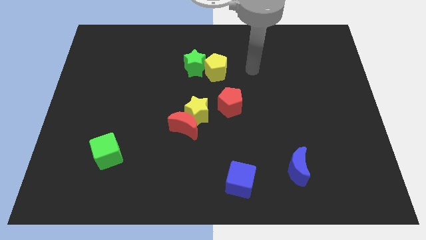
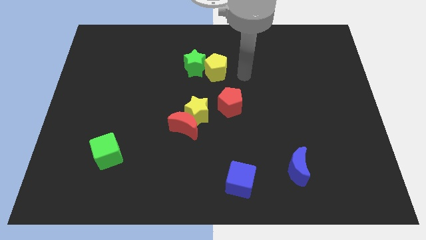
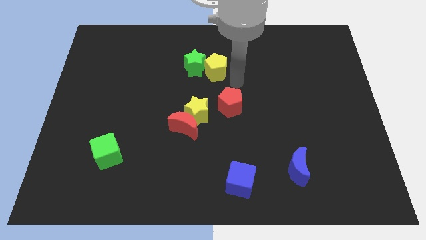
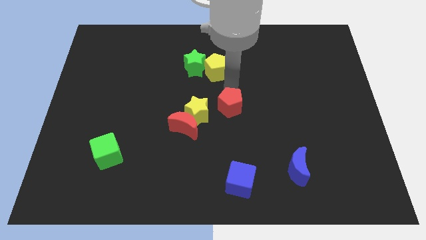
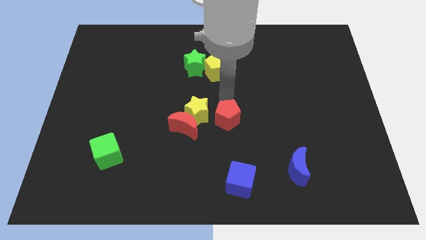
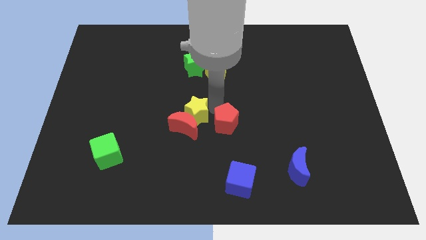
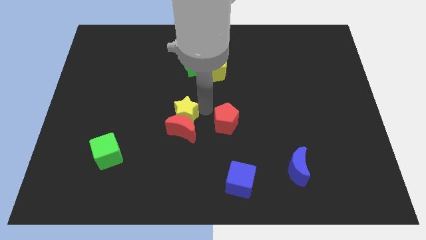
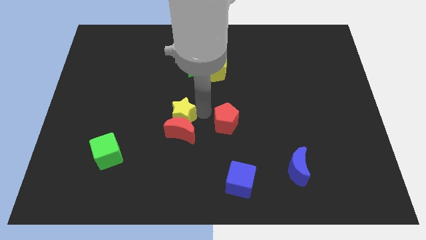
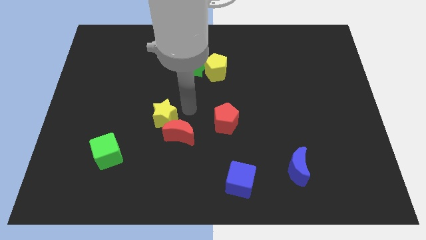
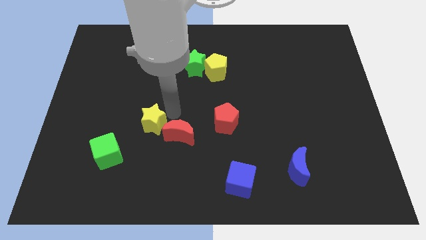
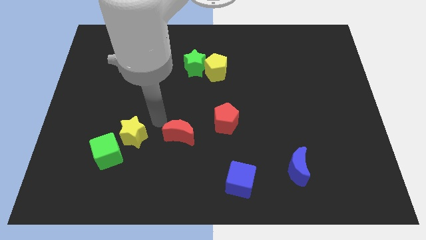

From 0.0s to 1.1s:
pull the red moon apart from the yellow star

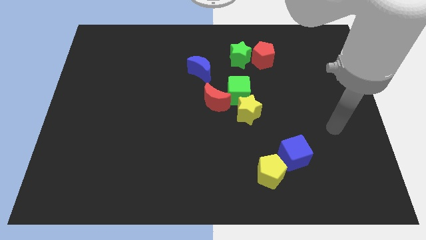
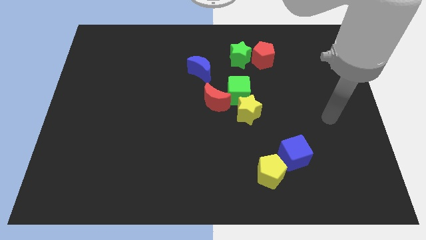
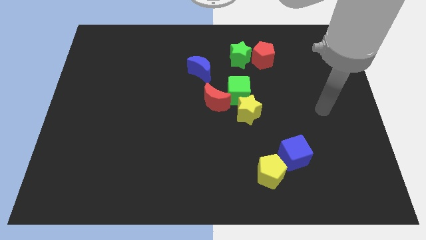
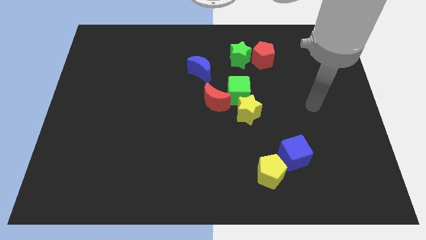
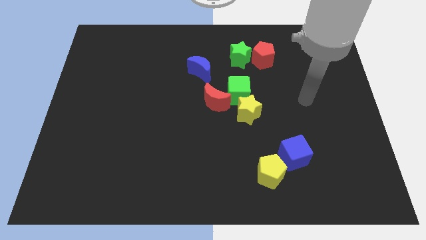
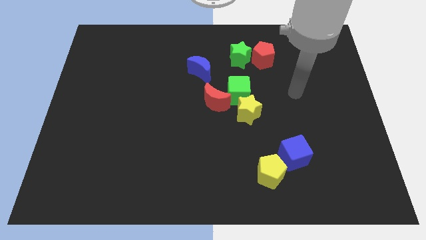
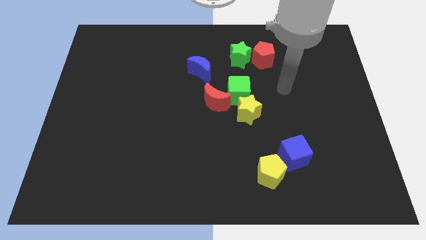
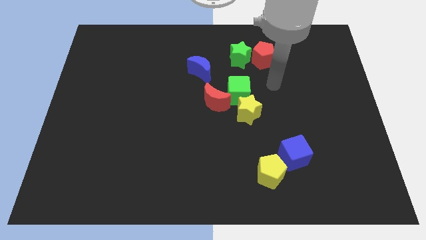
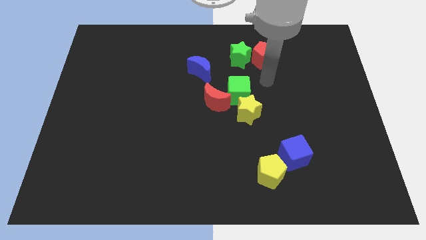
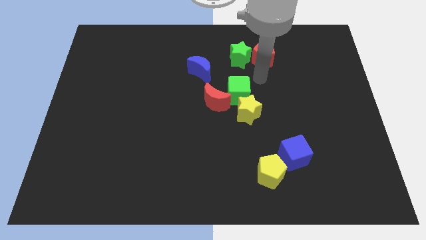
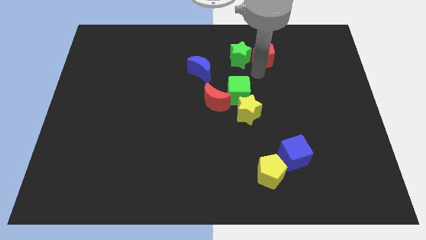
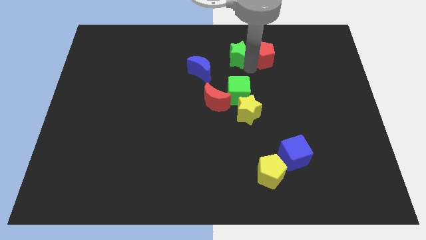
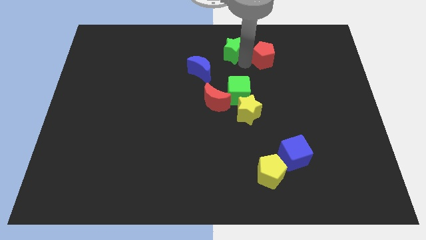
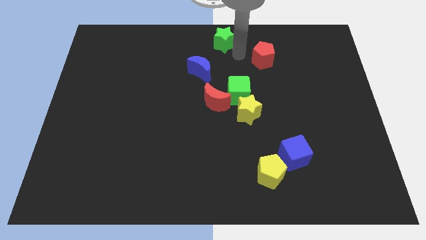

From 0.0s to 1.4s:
move the red pentagon away from the green star

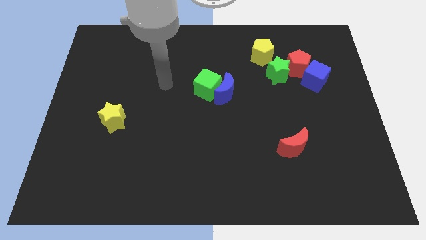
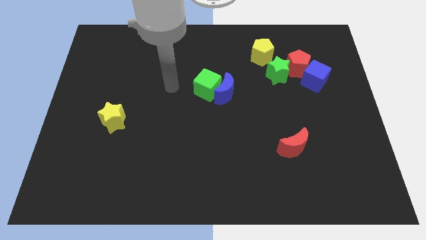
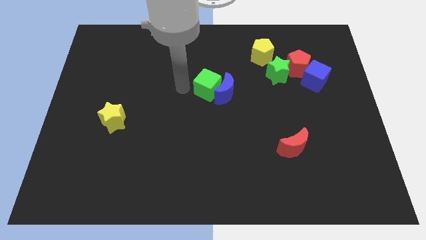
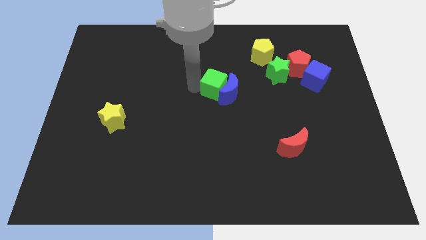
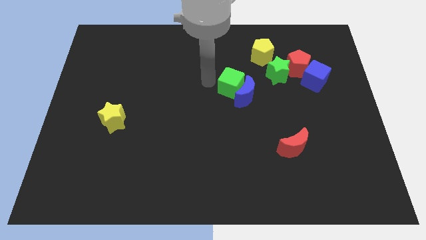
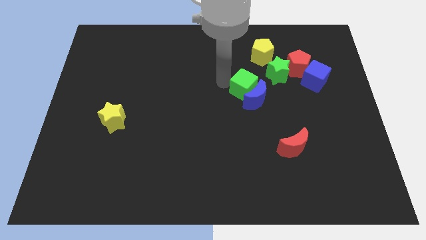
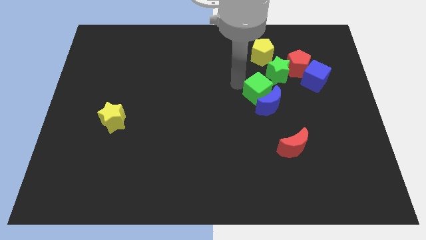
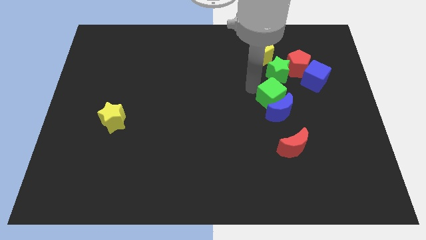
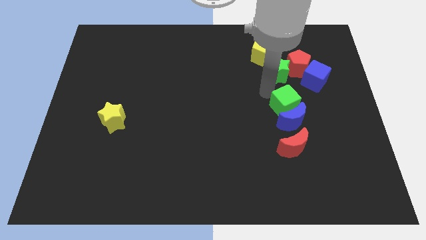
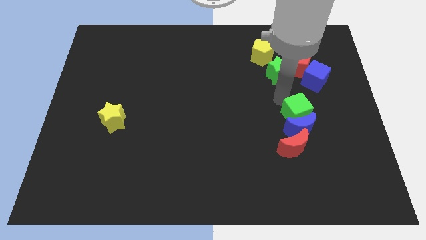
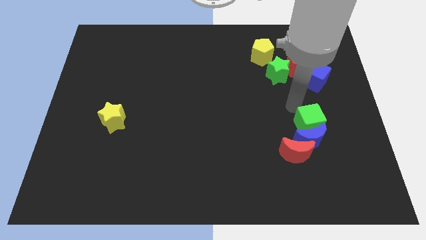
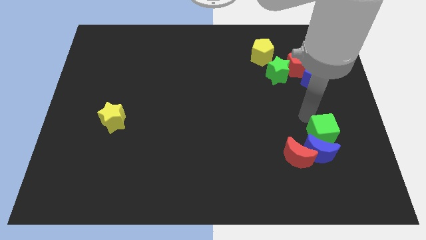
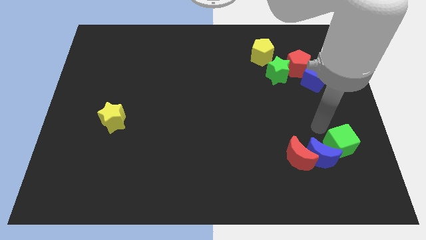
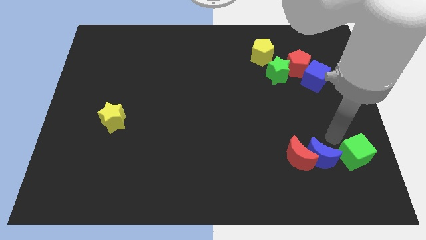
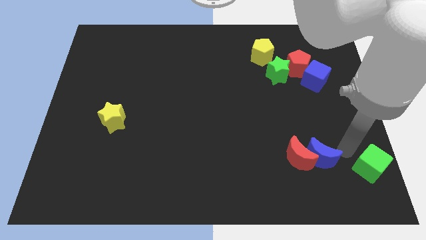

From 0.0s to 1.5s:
move the blue moon away from the green cube

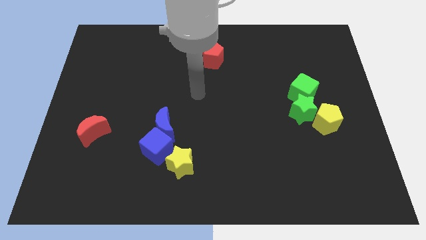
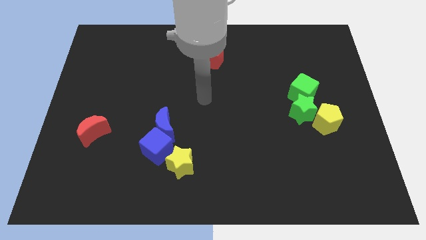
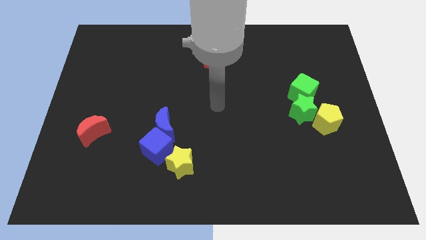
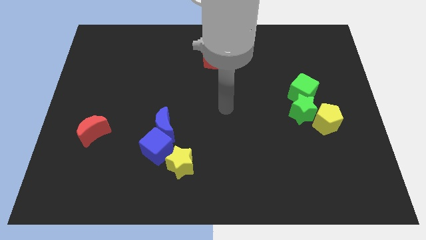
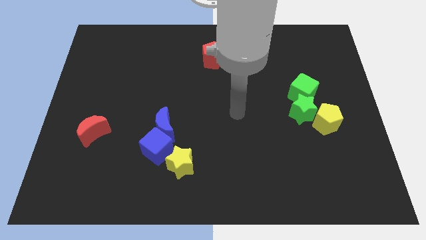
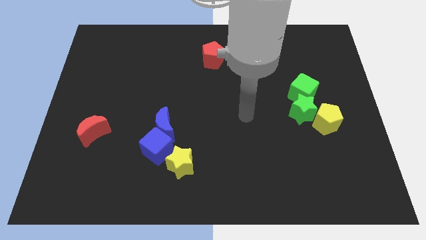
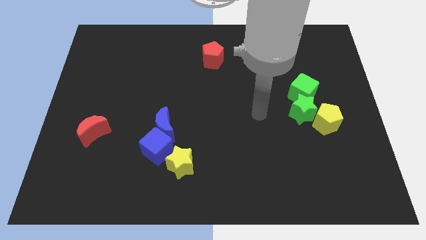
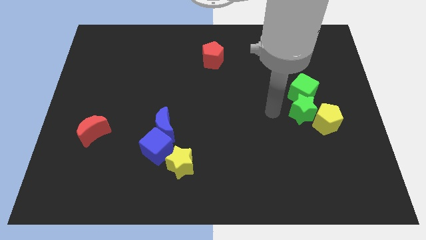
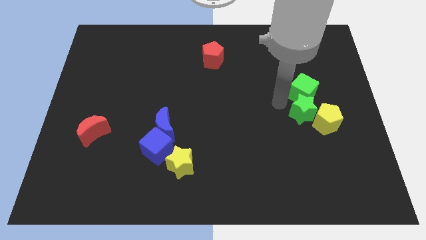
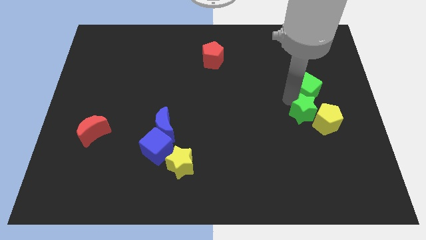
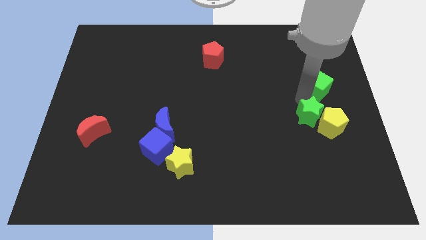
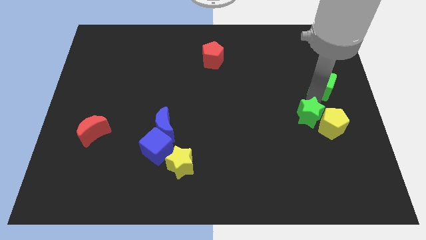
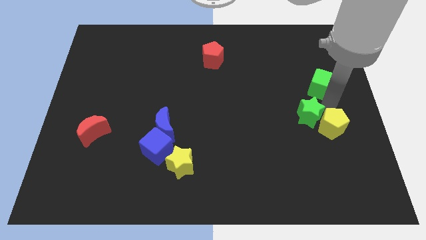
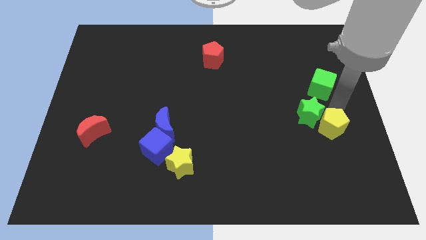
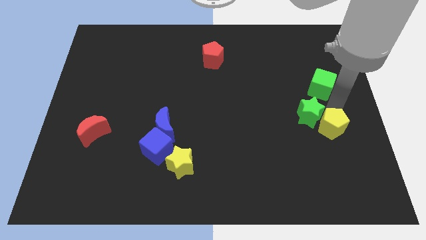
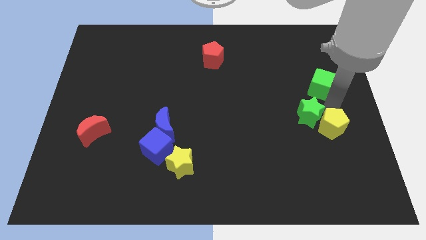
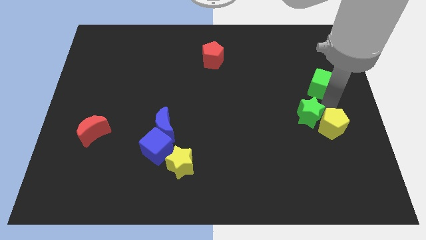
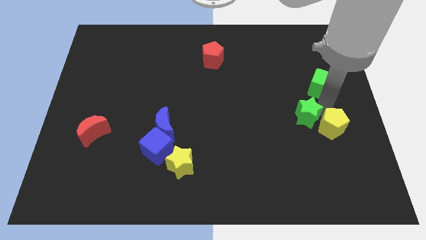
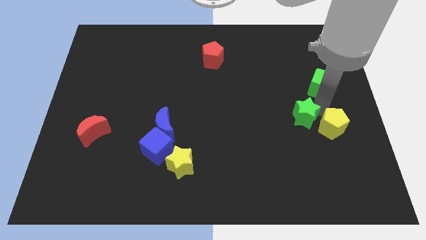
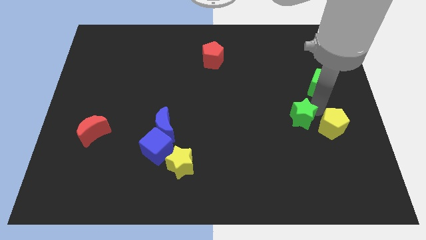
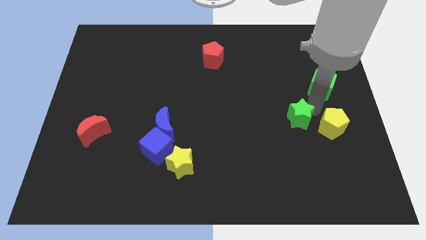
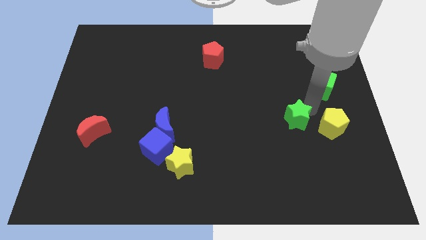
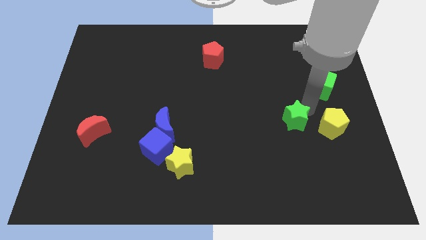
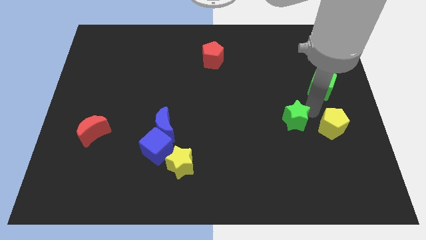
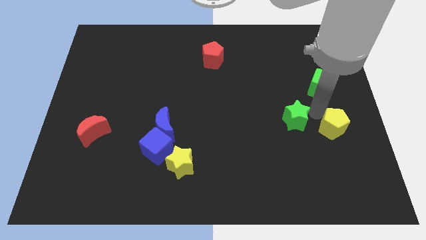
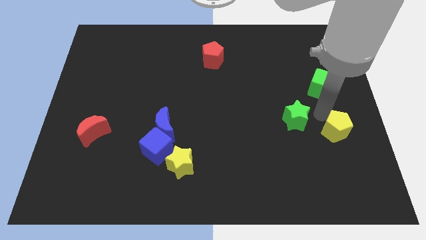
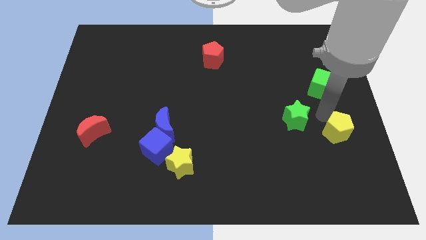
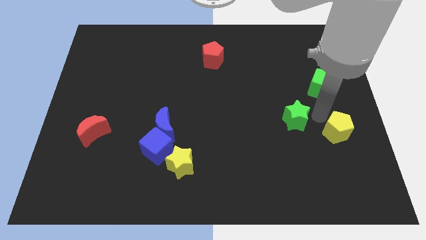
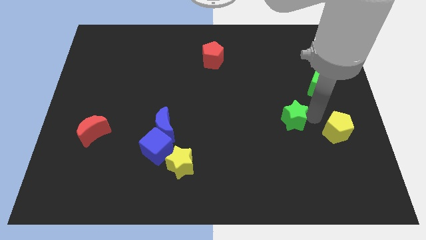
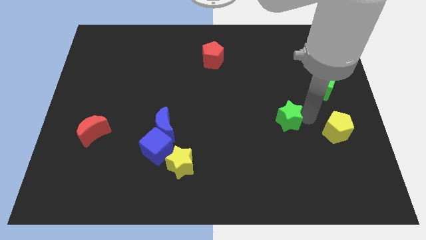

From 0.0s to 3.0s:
pull the green star apart from the yellow pentagon and green cube

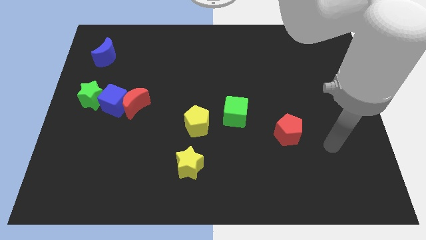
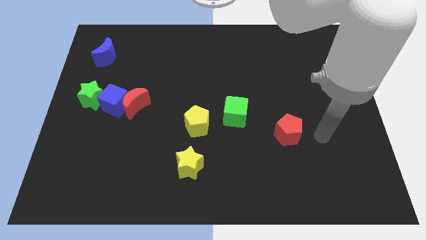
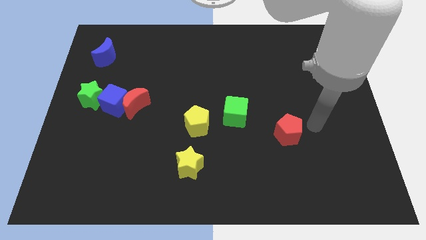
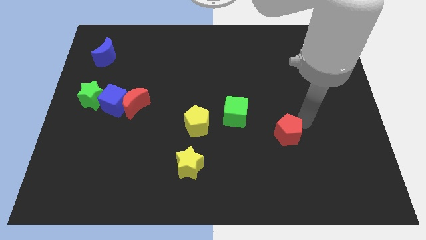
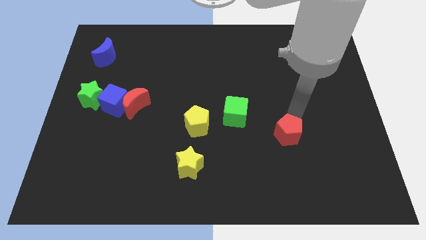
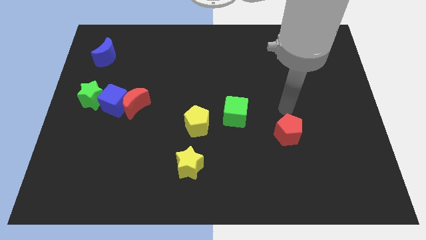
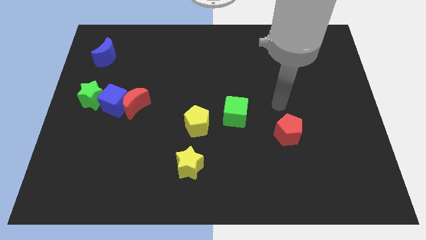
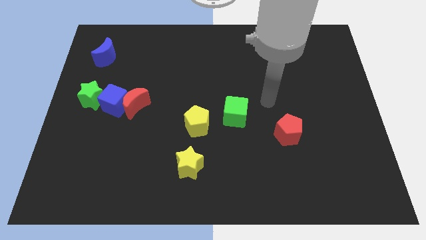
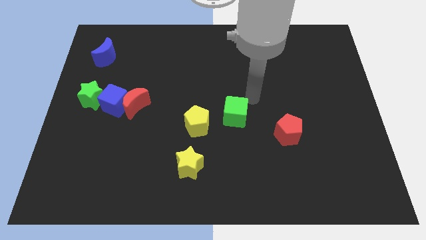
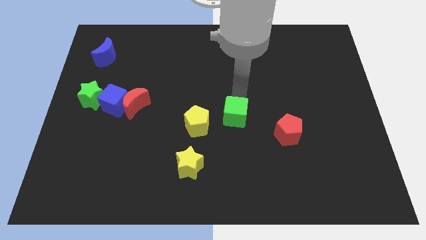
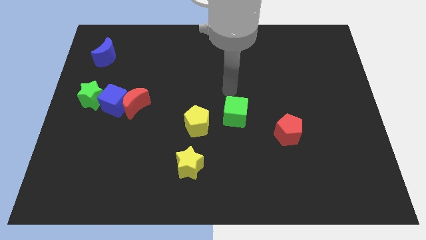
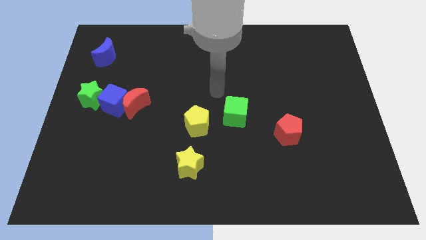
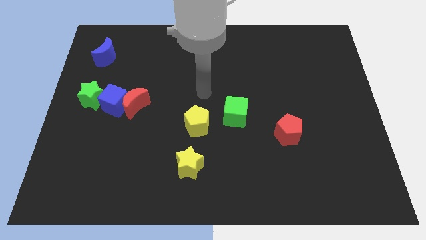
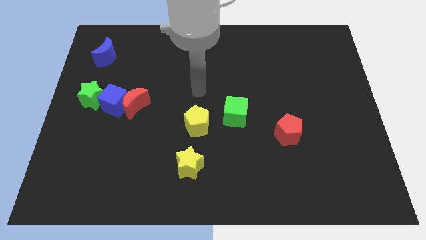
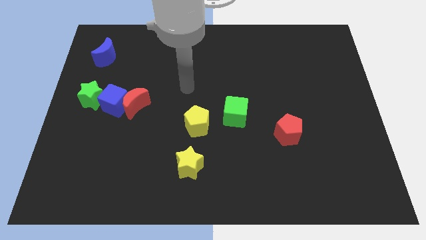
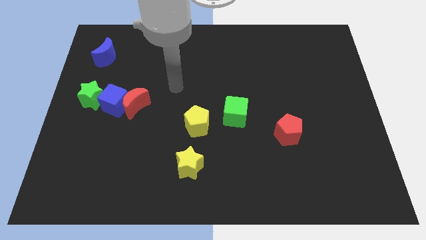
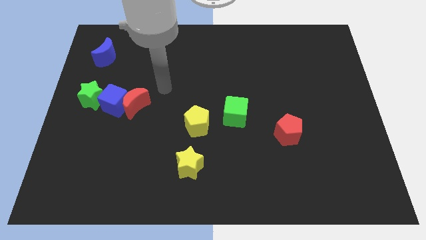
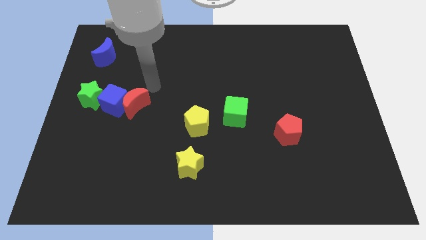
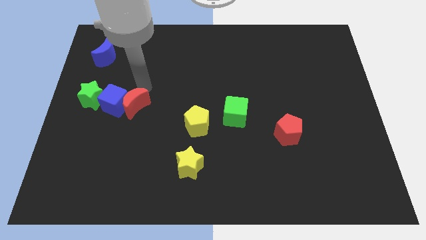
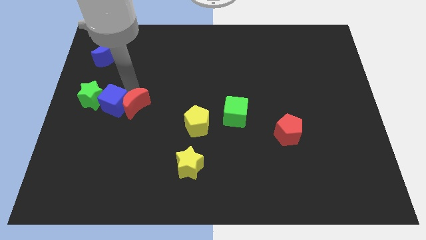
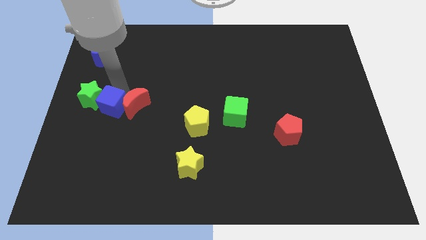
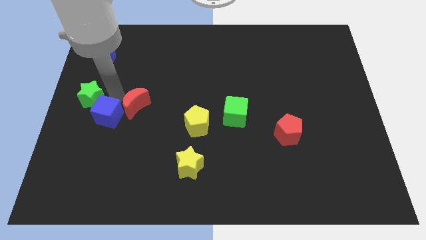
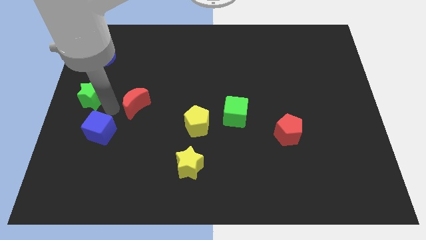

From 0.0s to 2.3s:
separate the red moon from the blue cube
